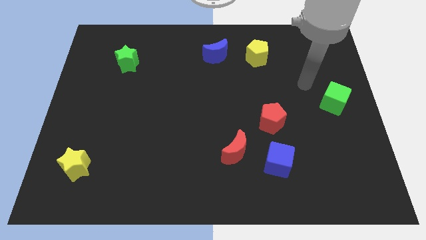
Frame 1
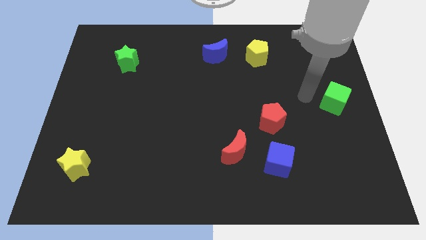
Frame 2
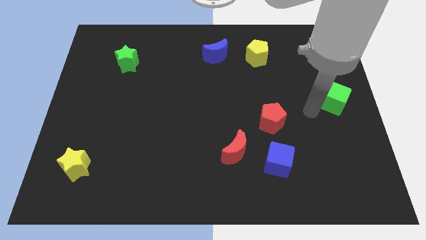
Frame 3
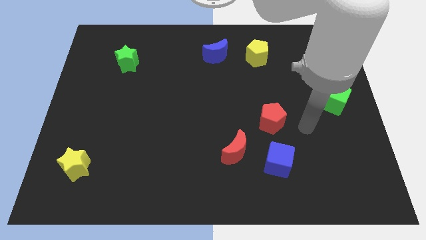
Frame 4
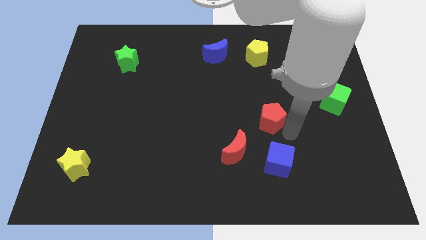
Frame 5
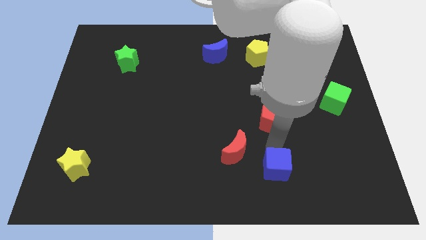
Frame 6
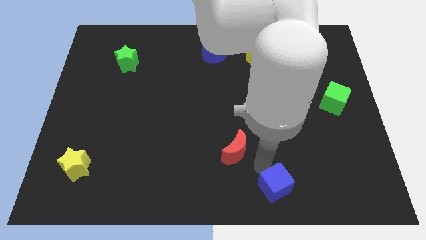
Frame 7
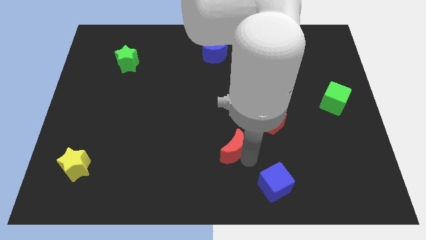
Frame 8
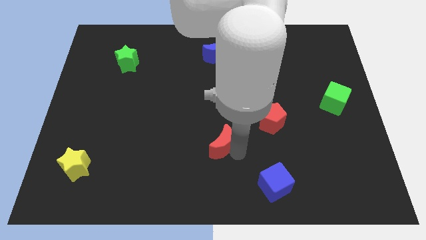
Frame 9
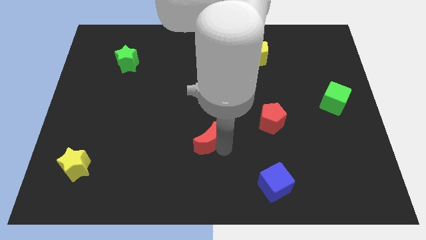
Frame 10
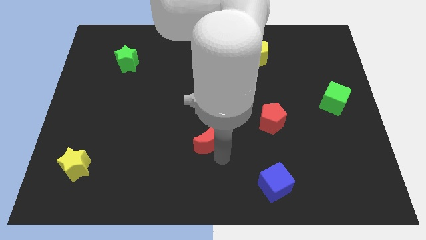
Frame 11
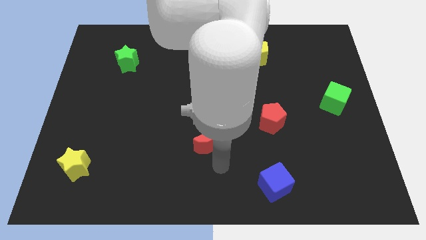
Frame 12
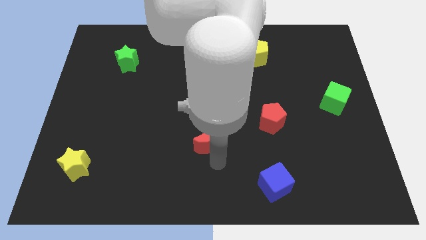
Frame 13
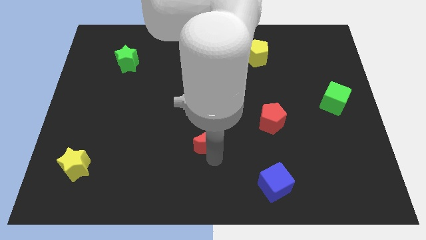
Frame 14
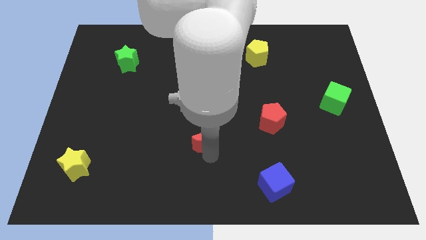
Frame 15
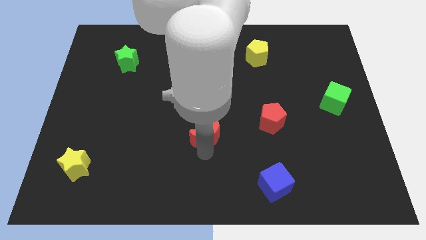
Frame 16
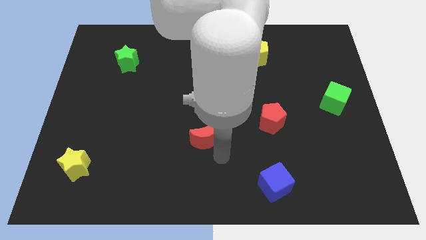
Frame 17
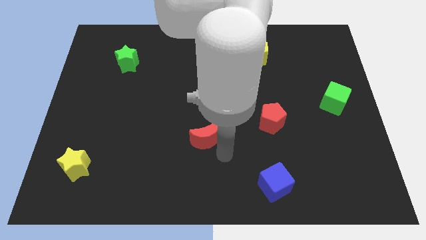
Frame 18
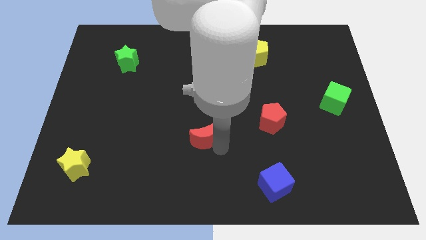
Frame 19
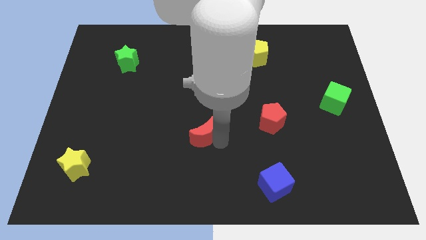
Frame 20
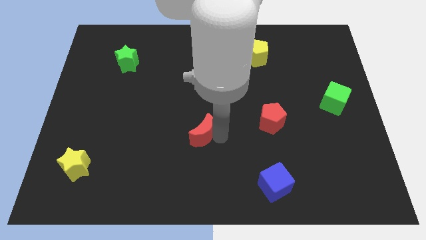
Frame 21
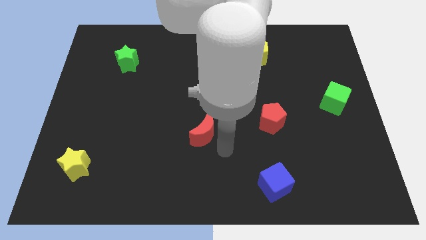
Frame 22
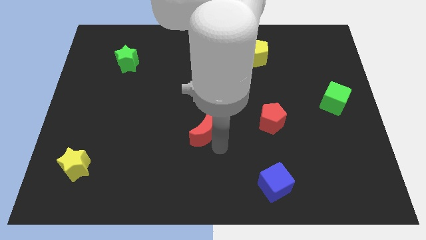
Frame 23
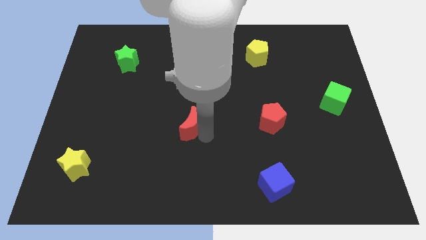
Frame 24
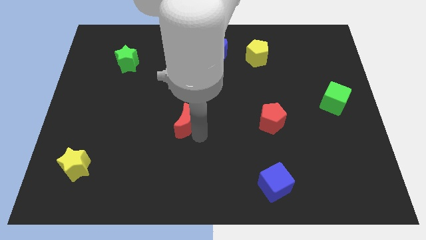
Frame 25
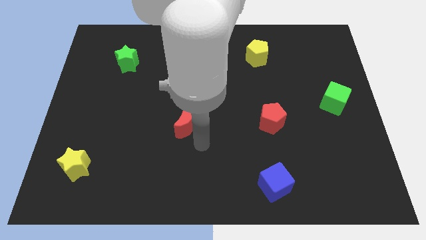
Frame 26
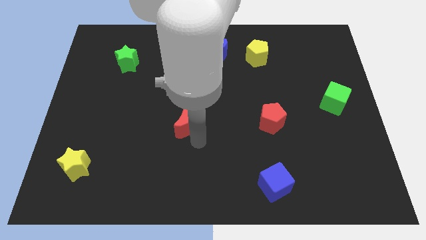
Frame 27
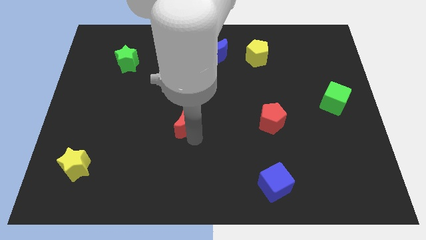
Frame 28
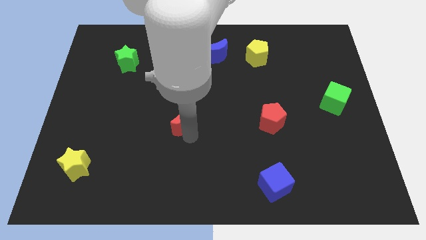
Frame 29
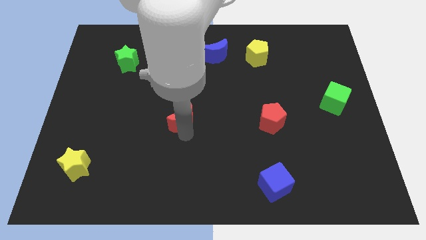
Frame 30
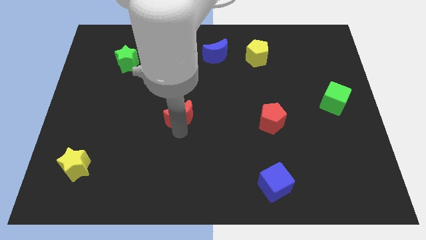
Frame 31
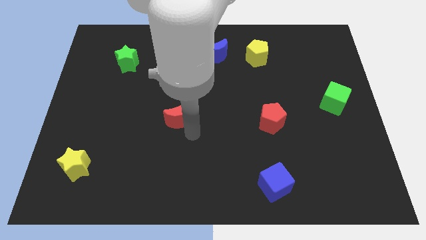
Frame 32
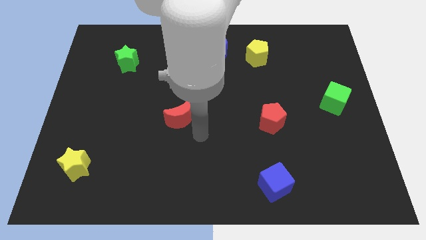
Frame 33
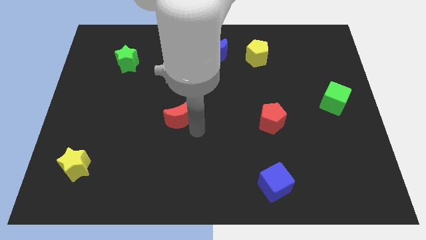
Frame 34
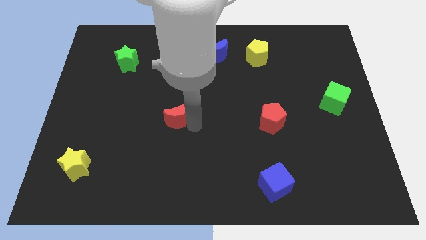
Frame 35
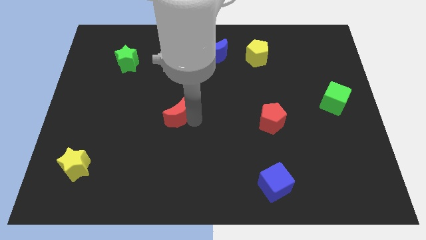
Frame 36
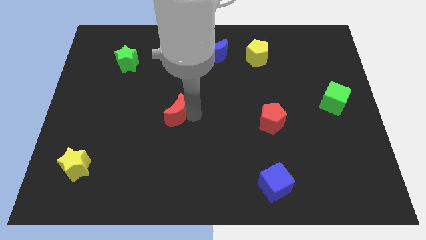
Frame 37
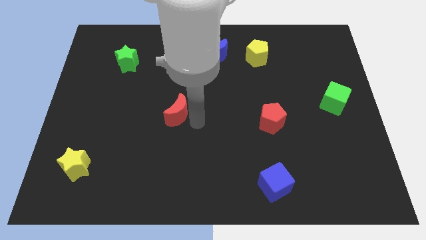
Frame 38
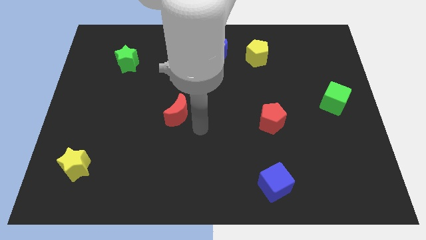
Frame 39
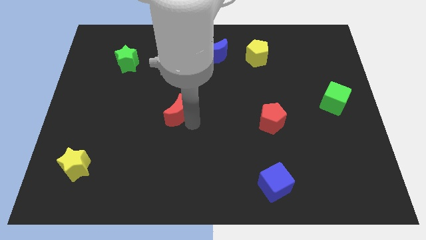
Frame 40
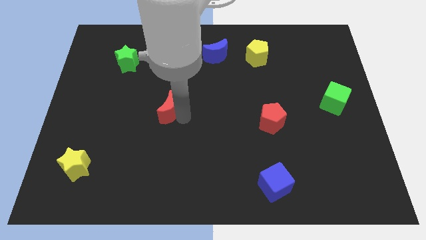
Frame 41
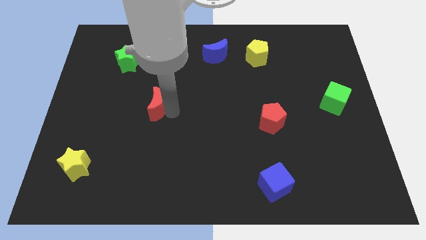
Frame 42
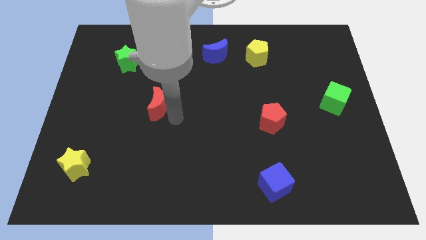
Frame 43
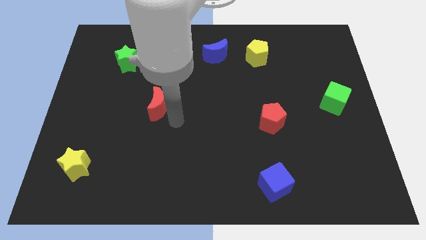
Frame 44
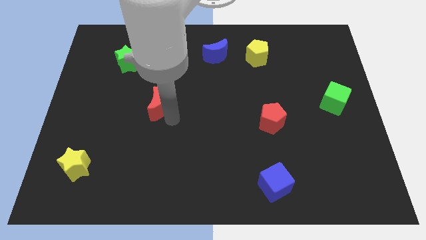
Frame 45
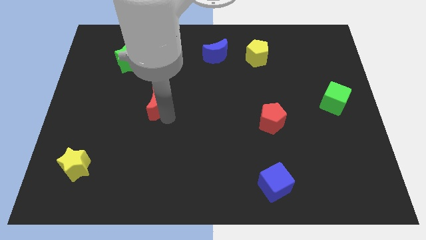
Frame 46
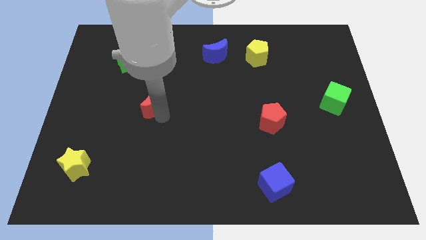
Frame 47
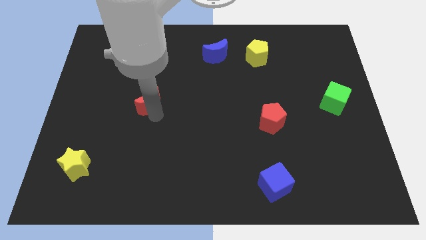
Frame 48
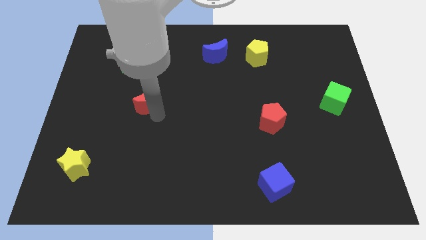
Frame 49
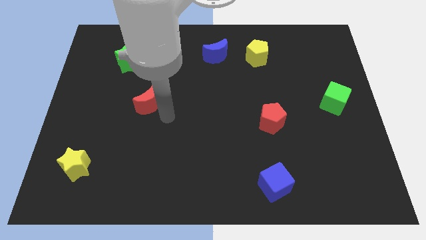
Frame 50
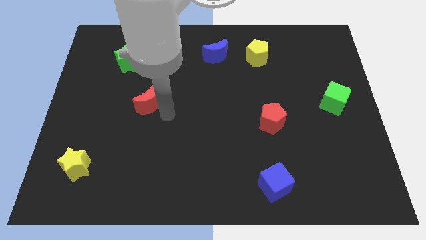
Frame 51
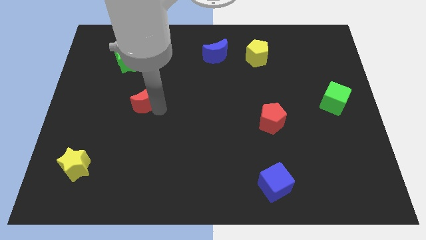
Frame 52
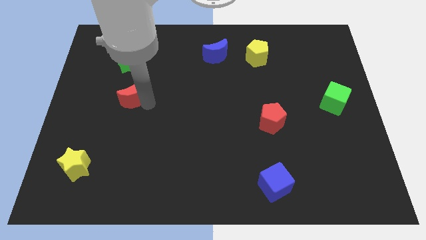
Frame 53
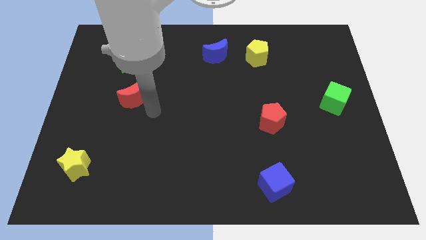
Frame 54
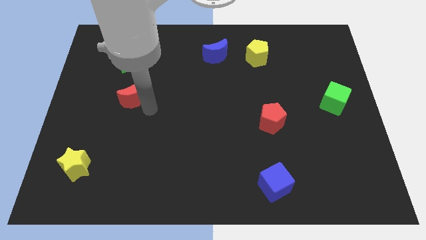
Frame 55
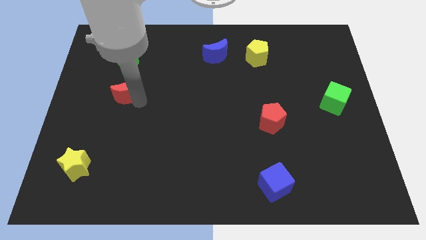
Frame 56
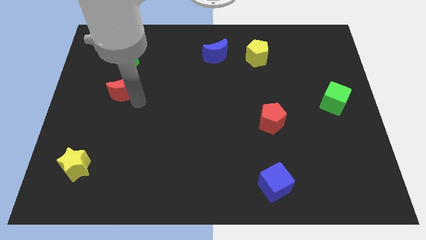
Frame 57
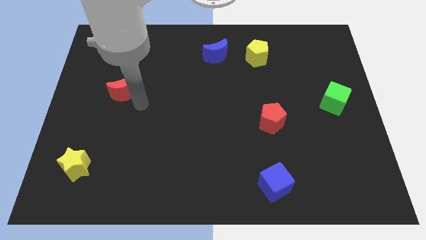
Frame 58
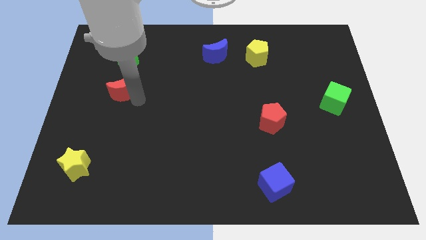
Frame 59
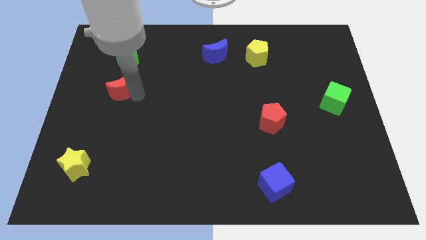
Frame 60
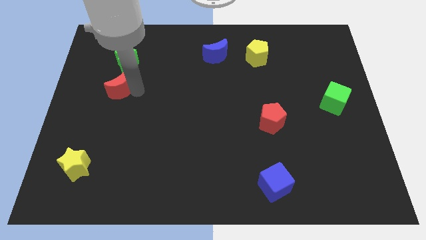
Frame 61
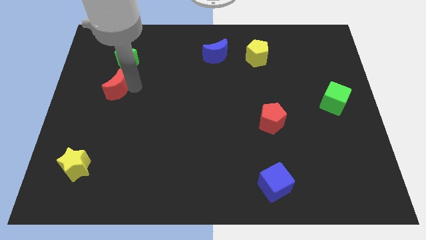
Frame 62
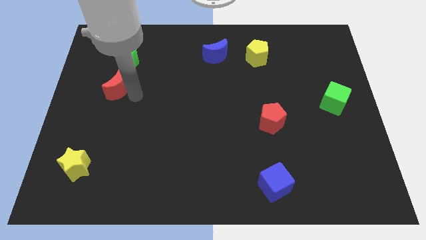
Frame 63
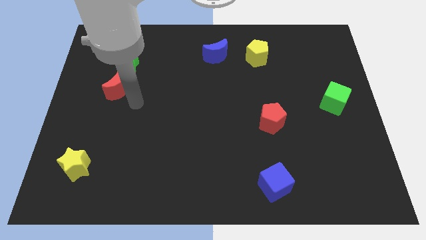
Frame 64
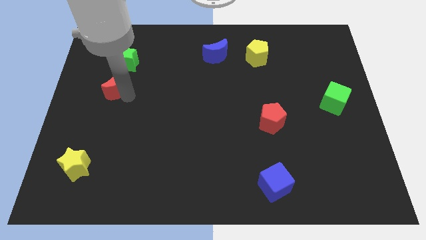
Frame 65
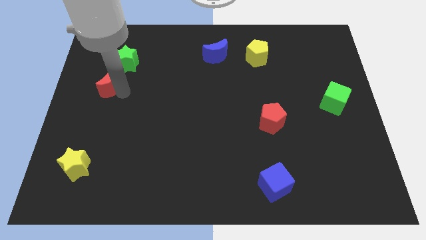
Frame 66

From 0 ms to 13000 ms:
slide the red moon to the bottom left side of the green star

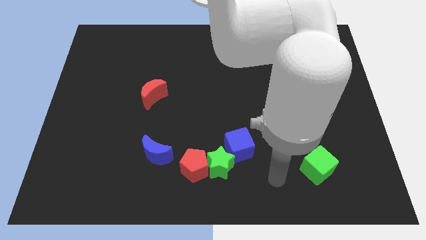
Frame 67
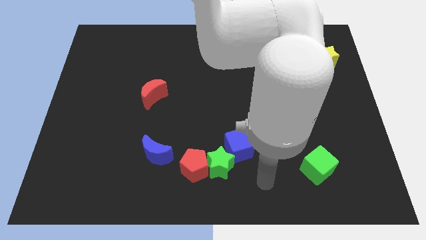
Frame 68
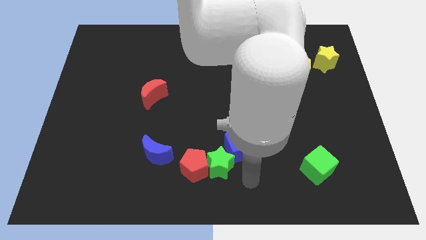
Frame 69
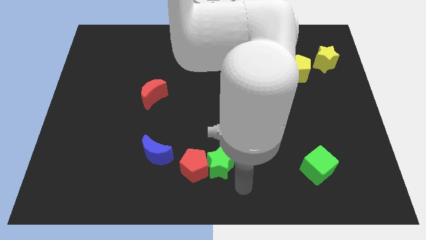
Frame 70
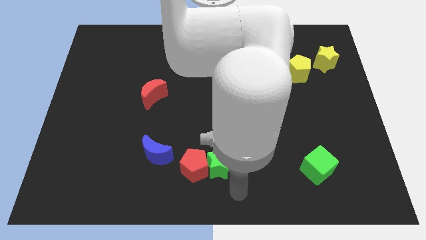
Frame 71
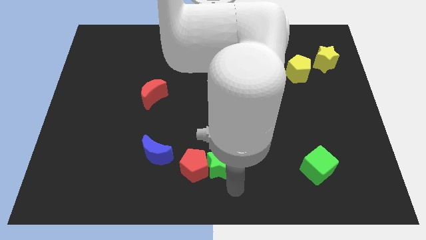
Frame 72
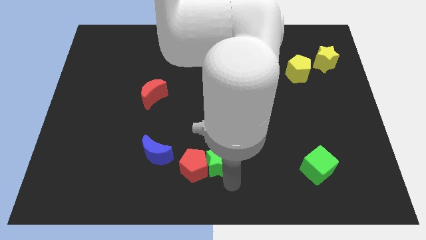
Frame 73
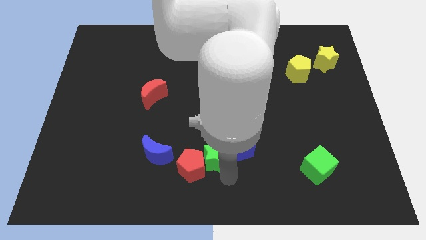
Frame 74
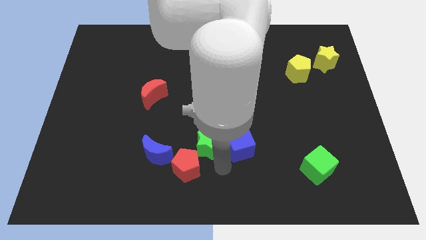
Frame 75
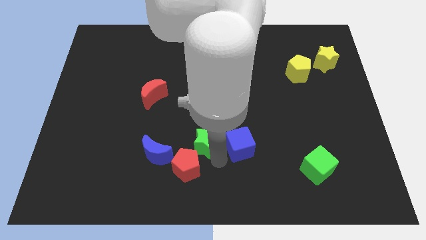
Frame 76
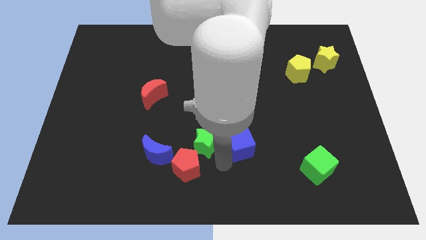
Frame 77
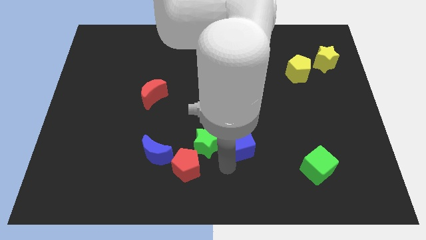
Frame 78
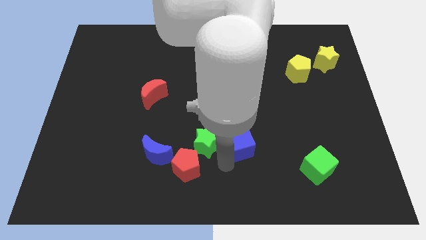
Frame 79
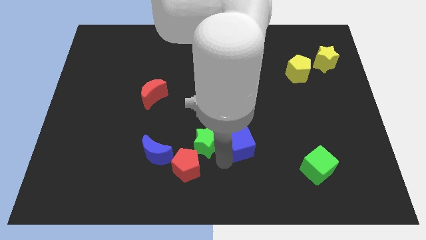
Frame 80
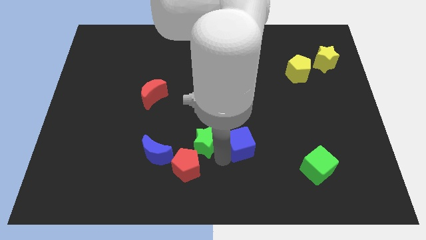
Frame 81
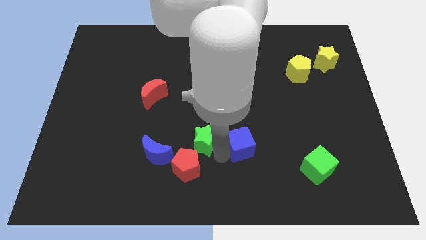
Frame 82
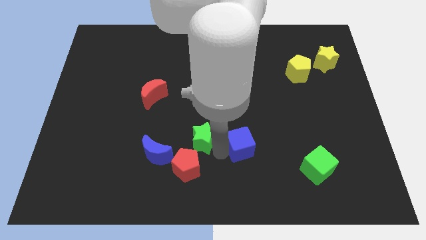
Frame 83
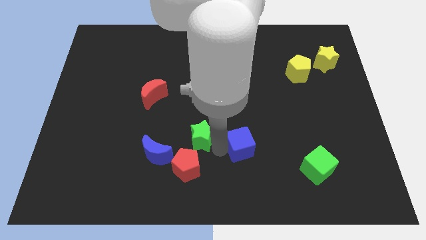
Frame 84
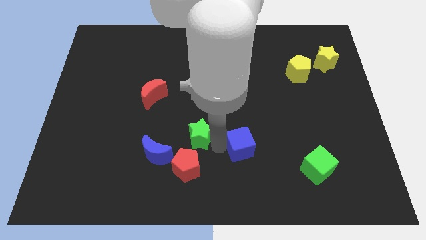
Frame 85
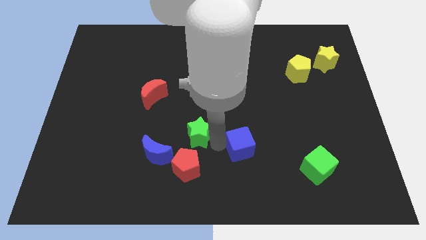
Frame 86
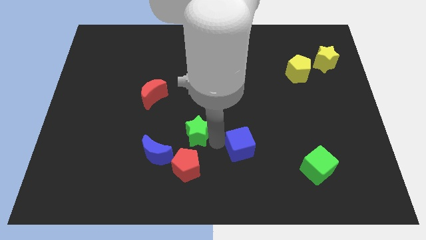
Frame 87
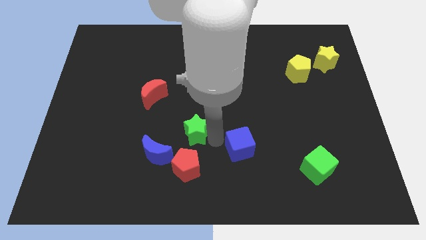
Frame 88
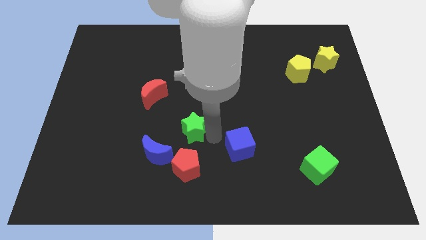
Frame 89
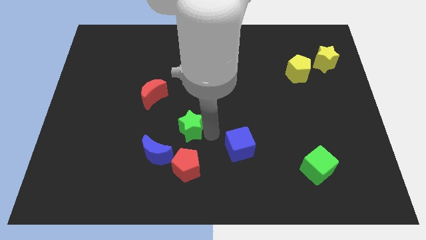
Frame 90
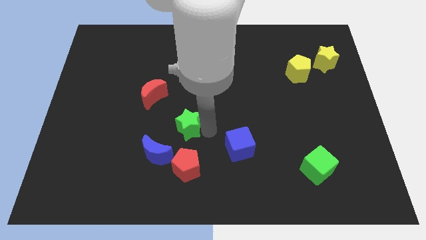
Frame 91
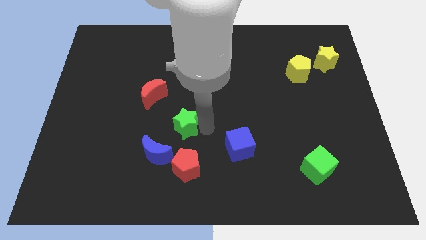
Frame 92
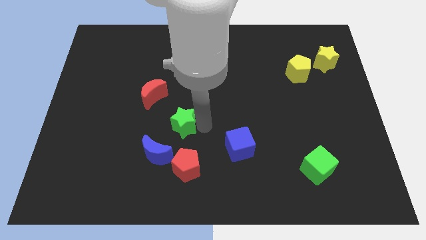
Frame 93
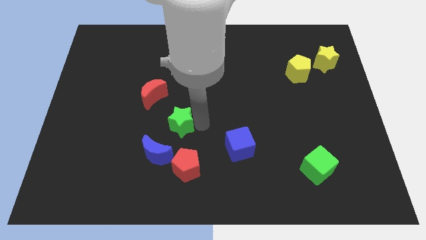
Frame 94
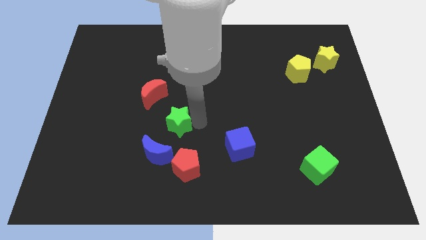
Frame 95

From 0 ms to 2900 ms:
push the green star above the blue moon
